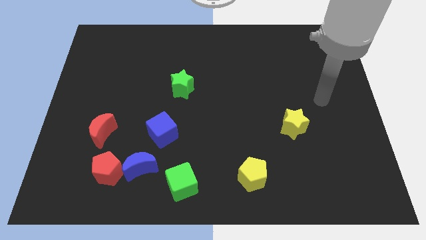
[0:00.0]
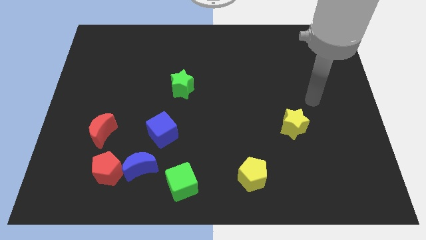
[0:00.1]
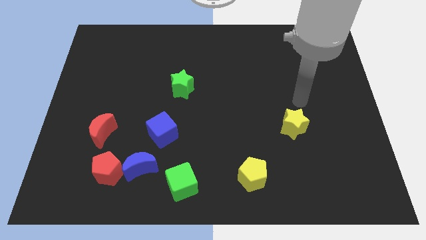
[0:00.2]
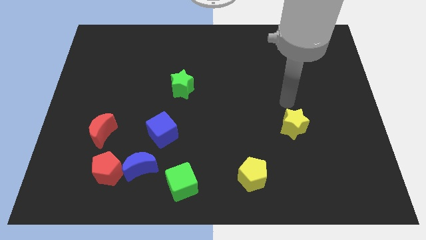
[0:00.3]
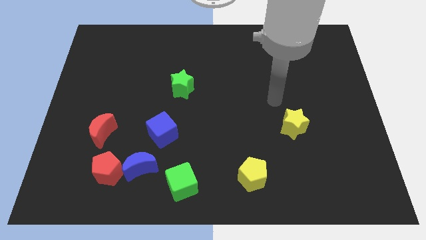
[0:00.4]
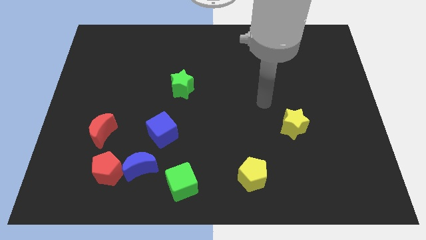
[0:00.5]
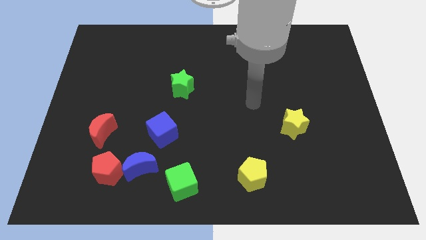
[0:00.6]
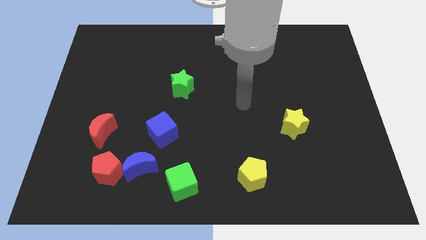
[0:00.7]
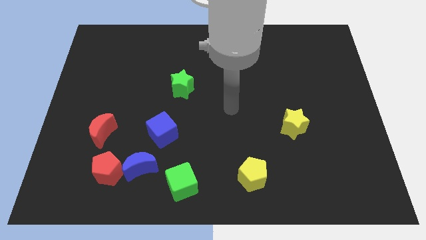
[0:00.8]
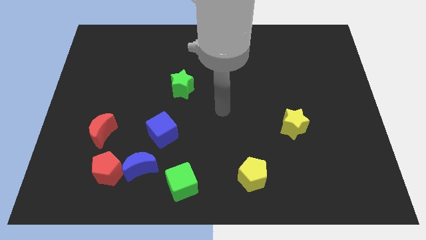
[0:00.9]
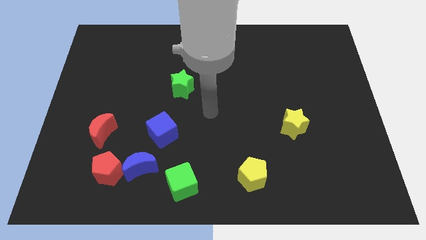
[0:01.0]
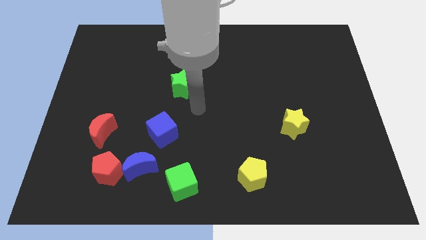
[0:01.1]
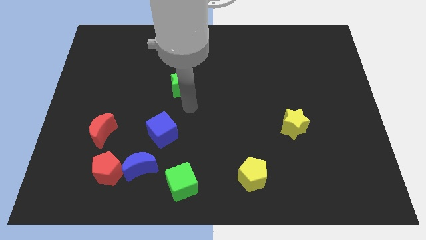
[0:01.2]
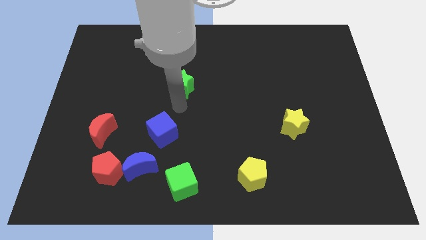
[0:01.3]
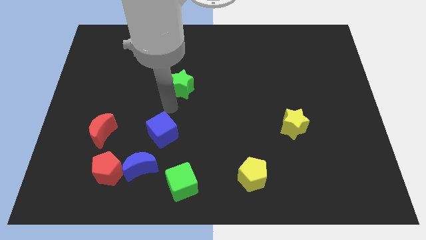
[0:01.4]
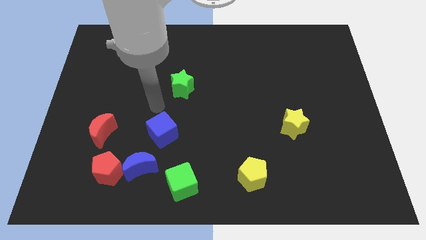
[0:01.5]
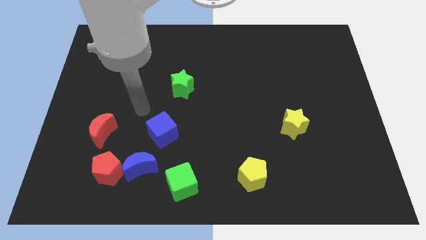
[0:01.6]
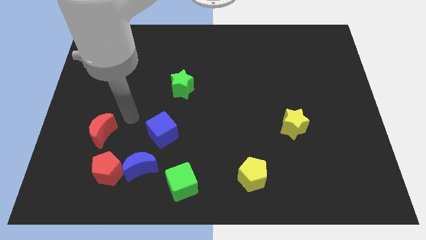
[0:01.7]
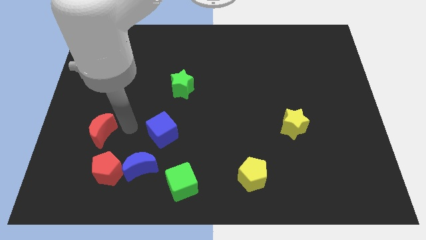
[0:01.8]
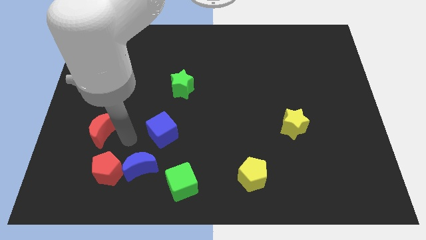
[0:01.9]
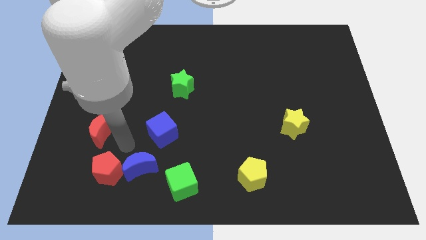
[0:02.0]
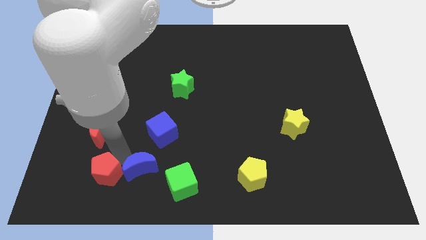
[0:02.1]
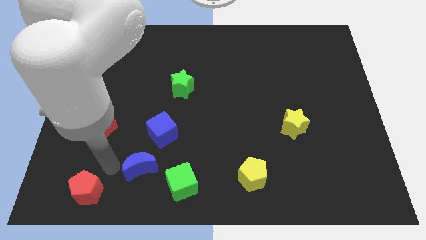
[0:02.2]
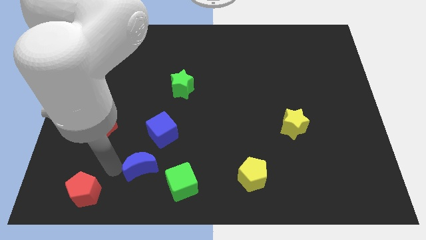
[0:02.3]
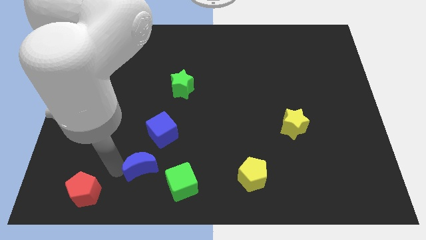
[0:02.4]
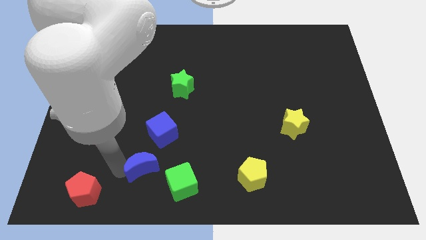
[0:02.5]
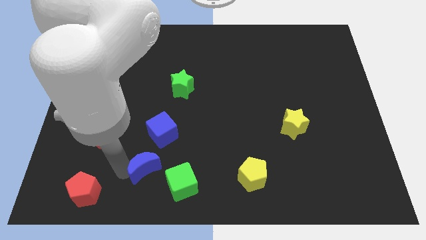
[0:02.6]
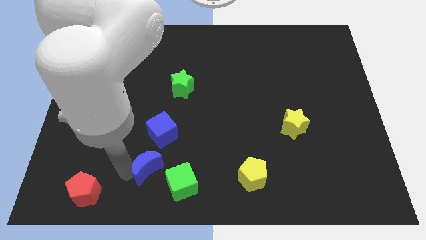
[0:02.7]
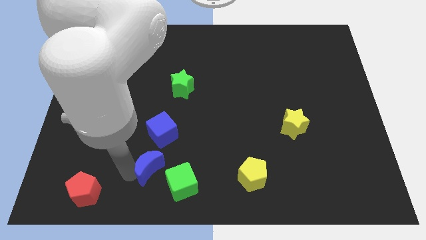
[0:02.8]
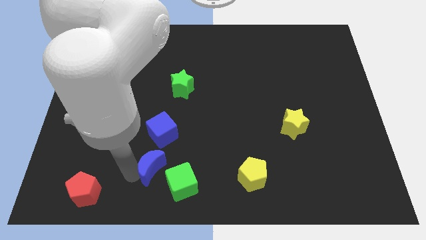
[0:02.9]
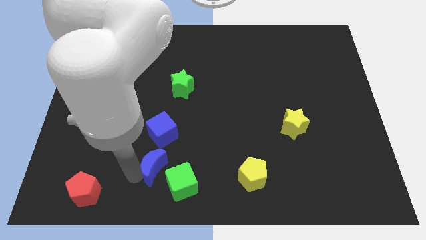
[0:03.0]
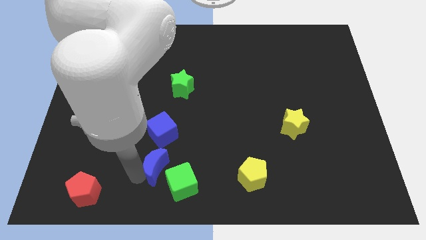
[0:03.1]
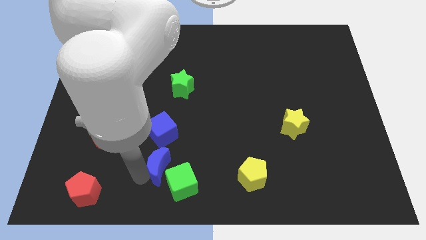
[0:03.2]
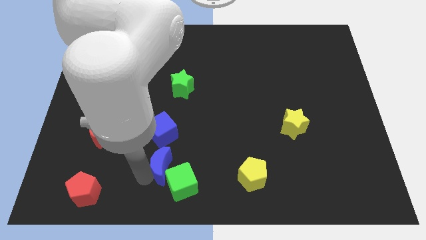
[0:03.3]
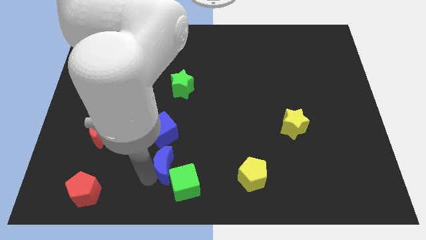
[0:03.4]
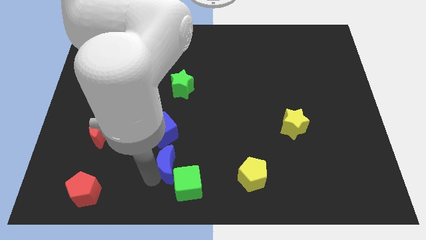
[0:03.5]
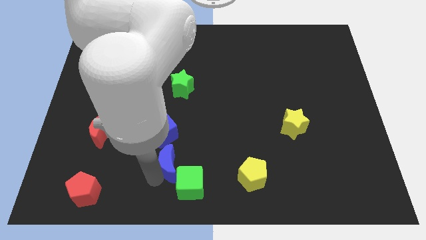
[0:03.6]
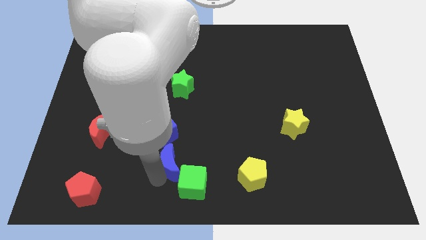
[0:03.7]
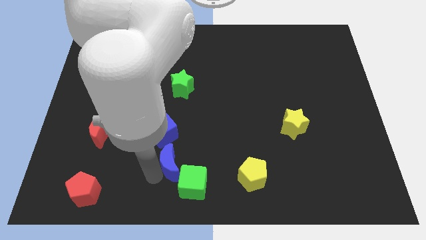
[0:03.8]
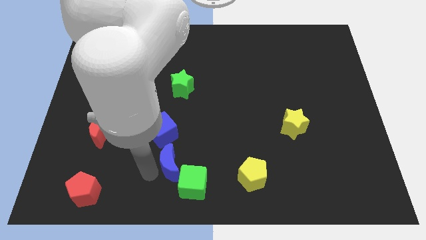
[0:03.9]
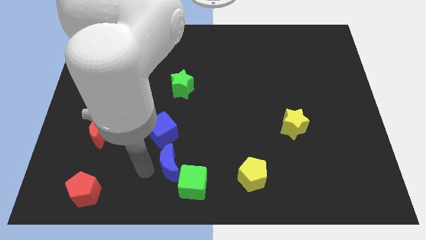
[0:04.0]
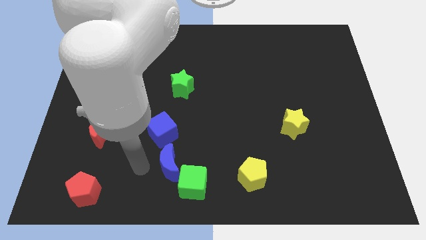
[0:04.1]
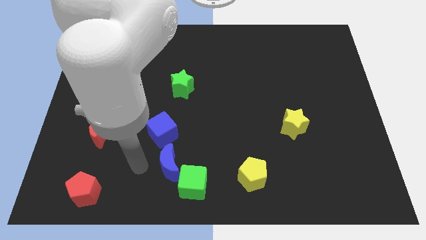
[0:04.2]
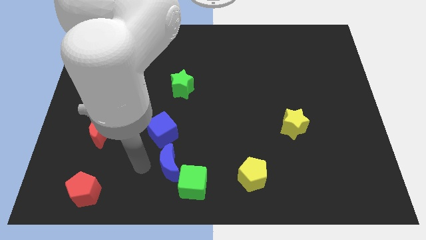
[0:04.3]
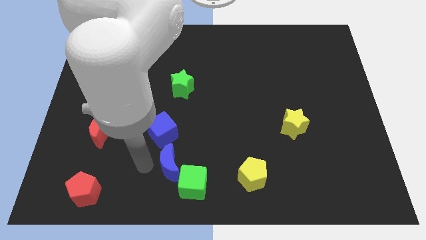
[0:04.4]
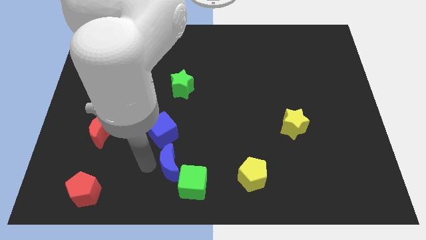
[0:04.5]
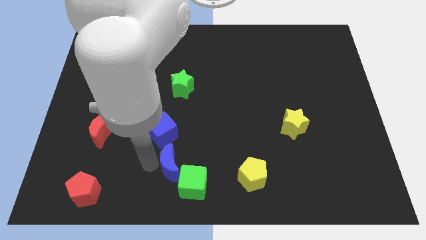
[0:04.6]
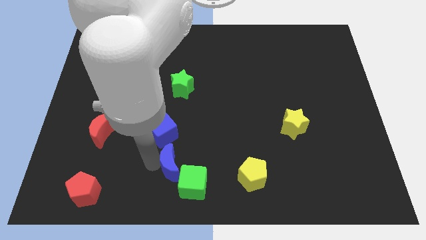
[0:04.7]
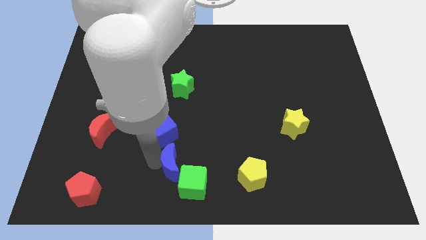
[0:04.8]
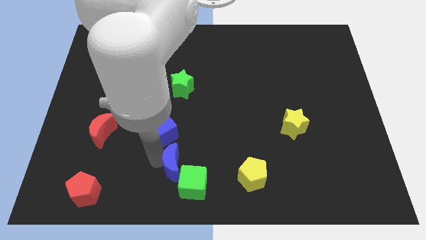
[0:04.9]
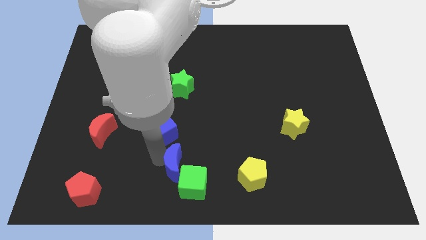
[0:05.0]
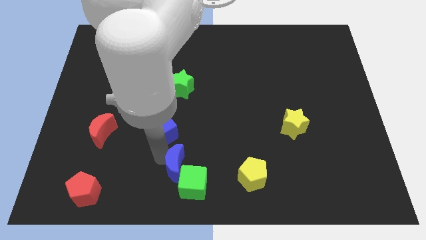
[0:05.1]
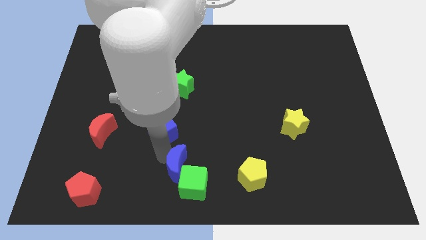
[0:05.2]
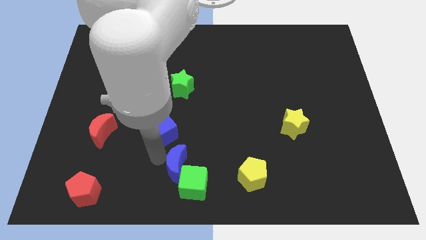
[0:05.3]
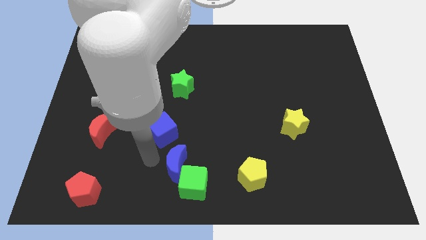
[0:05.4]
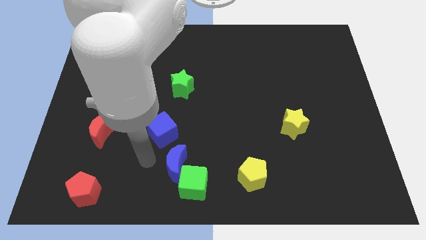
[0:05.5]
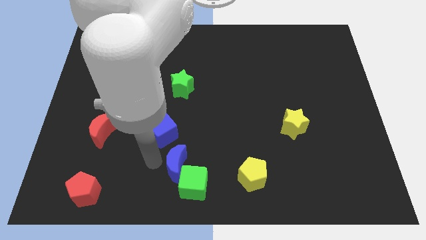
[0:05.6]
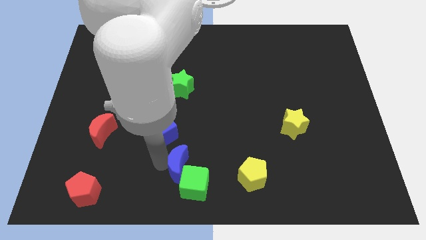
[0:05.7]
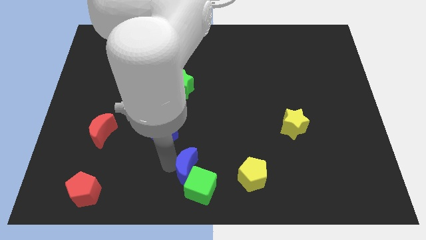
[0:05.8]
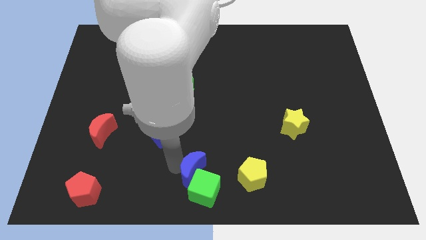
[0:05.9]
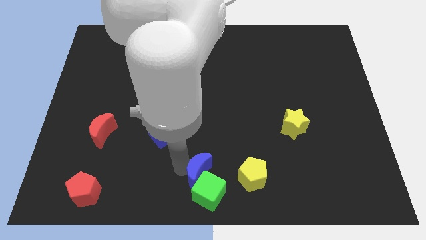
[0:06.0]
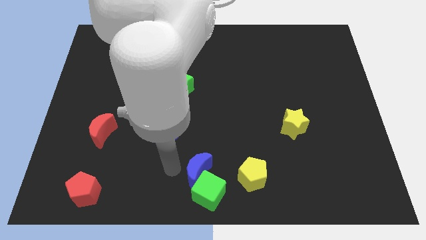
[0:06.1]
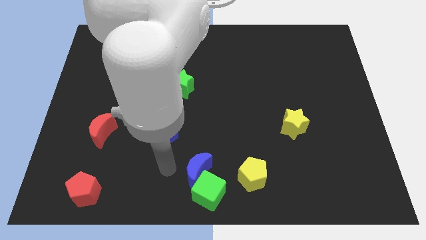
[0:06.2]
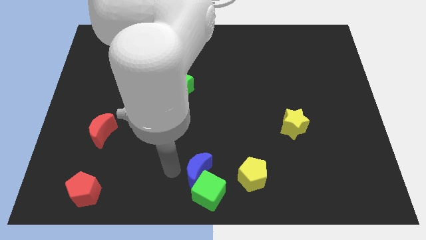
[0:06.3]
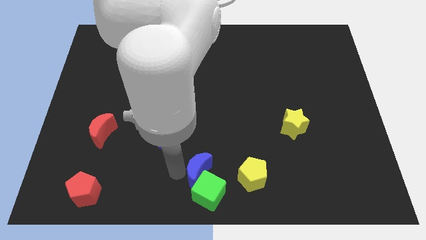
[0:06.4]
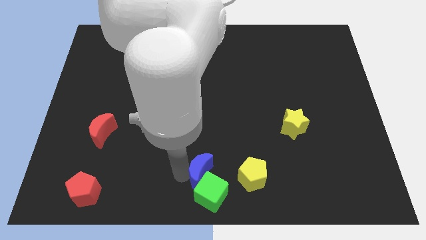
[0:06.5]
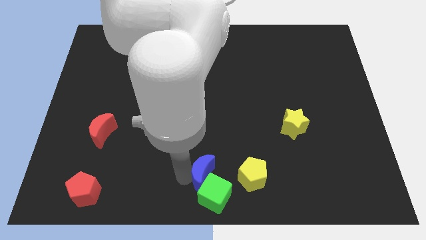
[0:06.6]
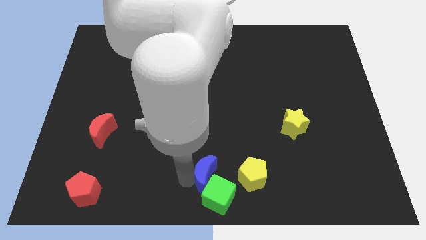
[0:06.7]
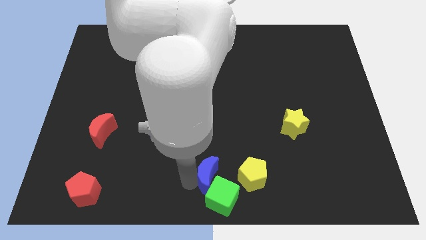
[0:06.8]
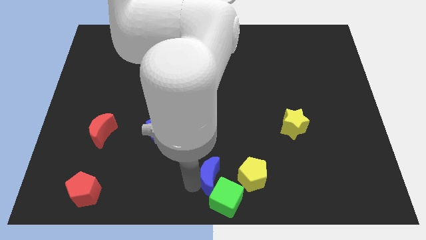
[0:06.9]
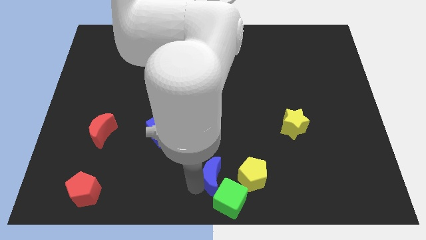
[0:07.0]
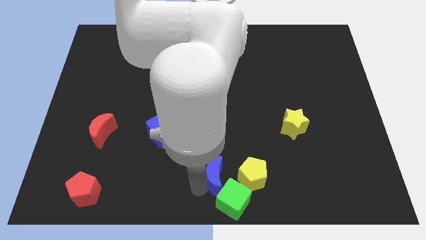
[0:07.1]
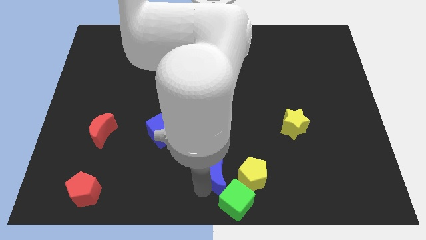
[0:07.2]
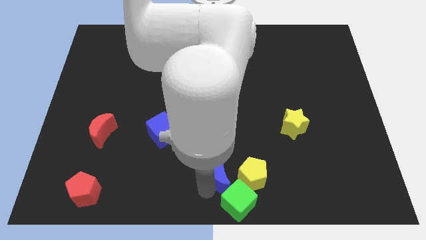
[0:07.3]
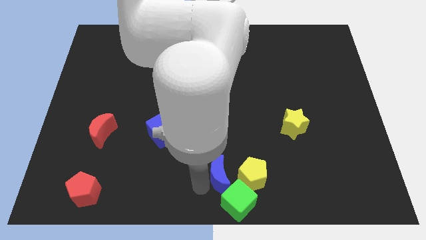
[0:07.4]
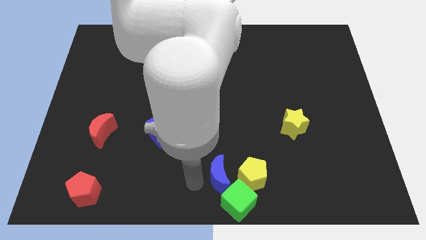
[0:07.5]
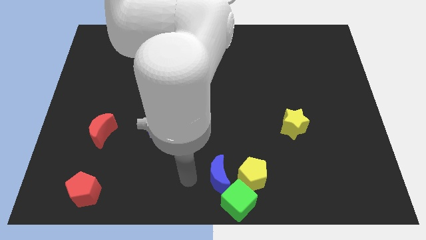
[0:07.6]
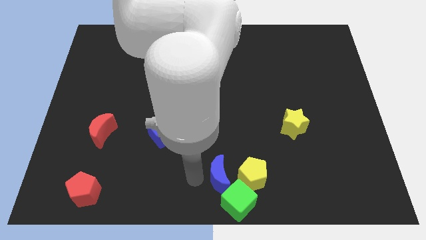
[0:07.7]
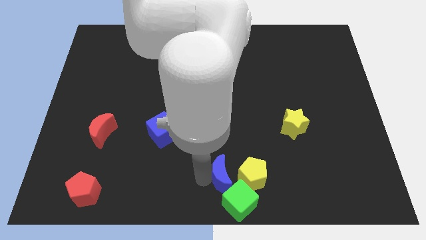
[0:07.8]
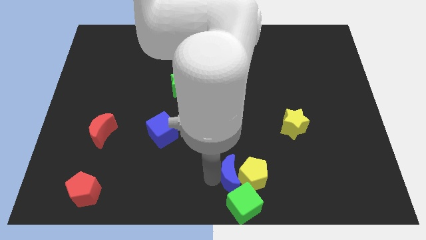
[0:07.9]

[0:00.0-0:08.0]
slide the blue moon close to the yellow pentagon

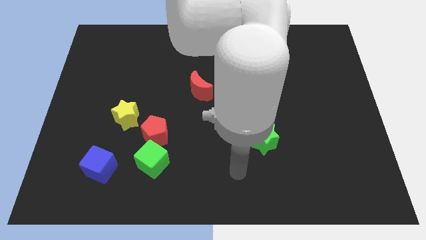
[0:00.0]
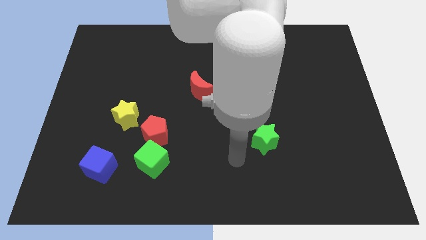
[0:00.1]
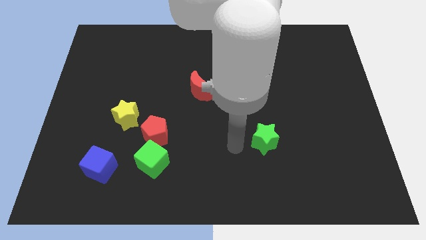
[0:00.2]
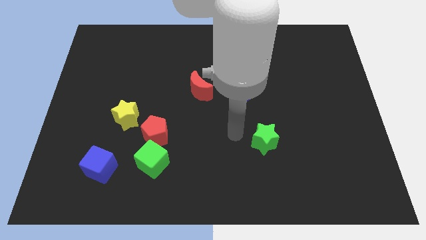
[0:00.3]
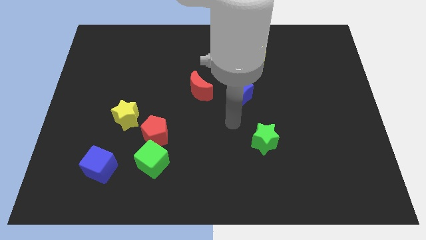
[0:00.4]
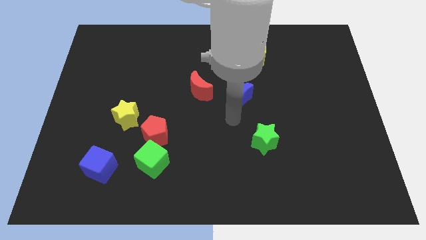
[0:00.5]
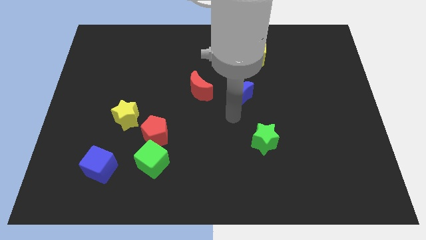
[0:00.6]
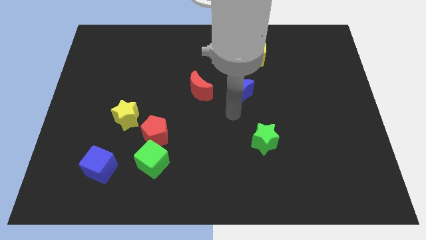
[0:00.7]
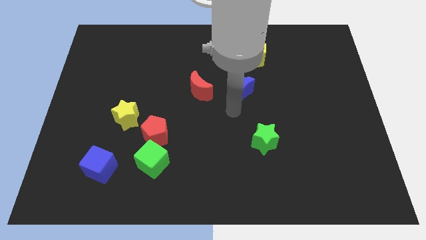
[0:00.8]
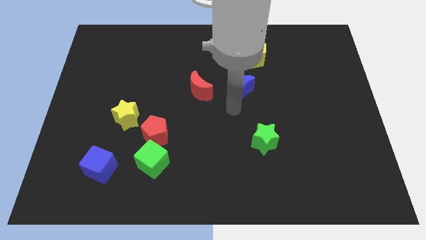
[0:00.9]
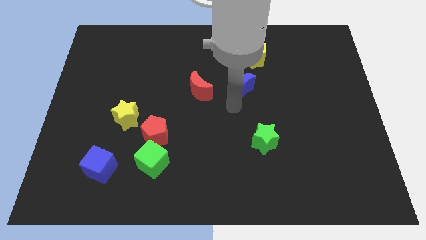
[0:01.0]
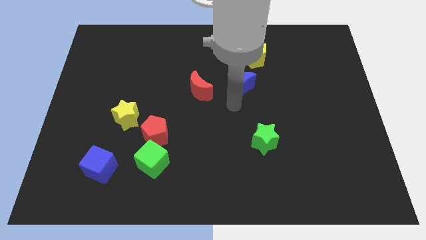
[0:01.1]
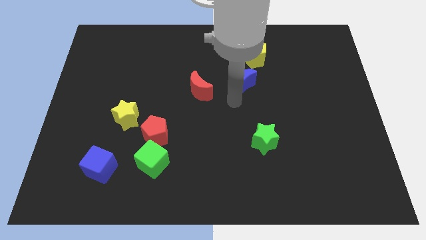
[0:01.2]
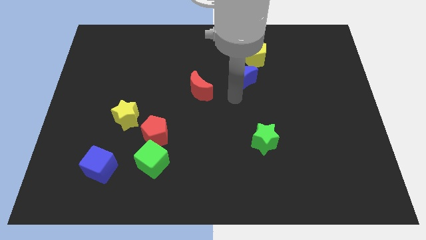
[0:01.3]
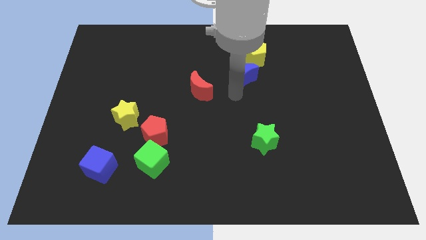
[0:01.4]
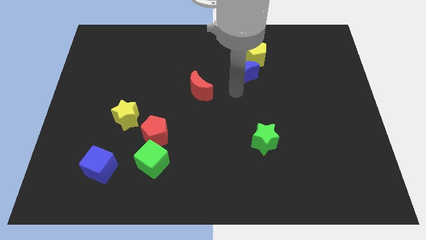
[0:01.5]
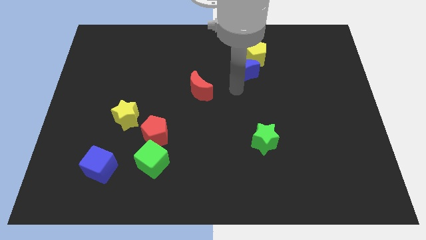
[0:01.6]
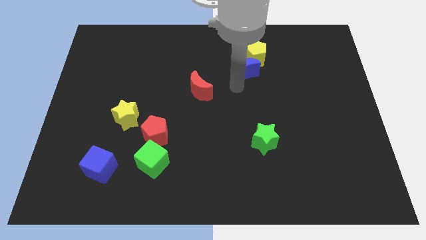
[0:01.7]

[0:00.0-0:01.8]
push the blue moon close to the yellow pentagon
